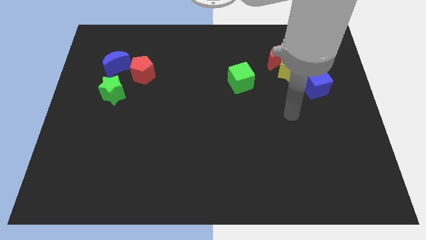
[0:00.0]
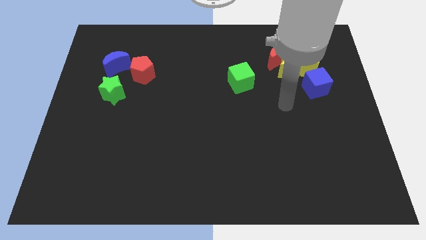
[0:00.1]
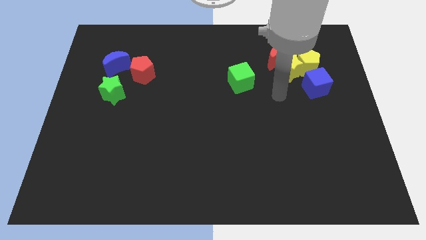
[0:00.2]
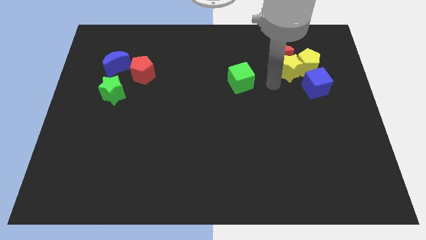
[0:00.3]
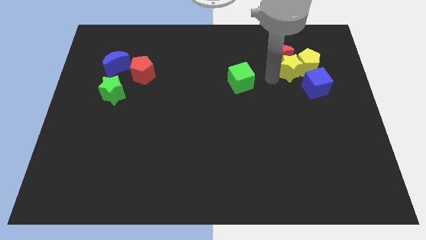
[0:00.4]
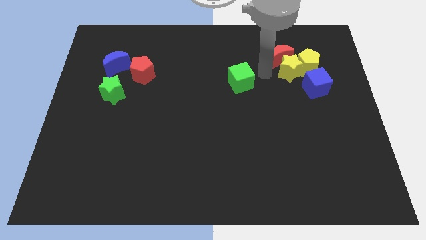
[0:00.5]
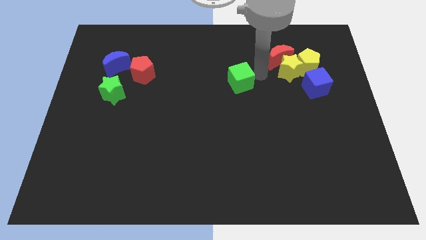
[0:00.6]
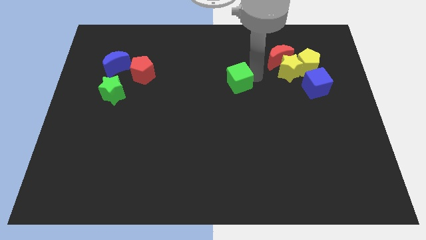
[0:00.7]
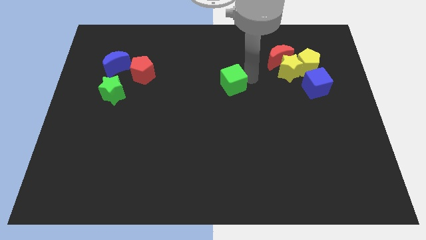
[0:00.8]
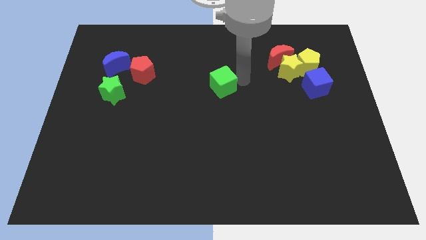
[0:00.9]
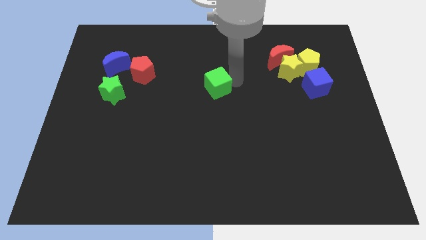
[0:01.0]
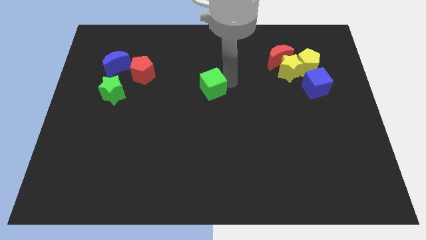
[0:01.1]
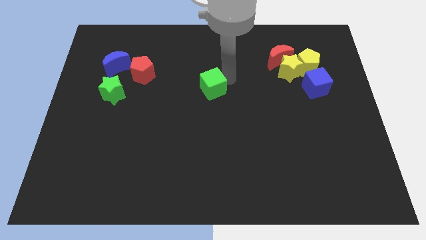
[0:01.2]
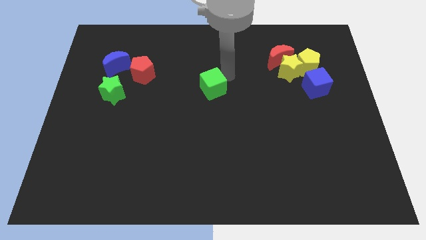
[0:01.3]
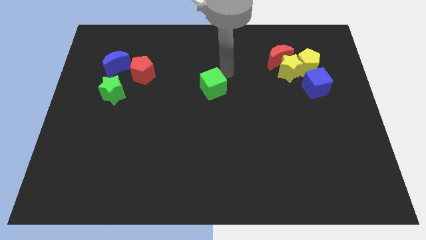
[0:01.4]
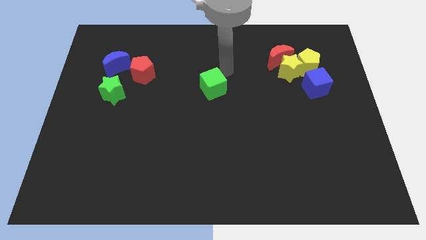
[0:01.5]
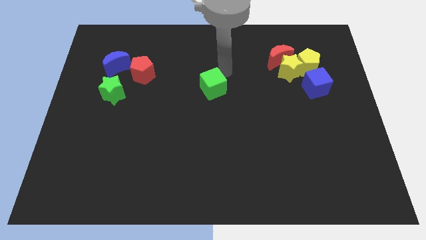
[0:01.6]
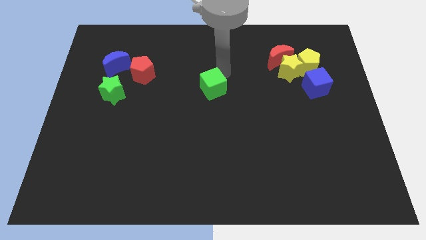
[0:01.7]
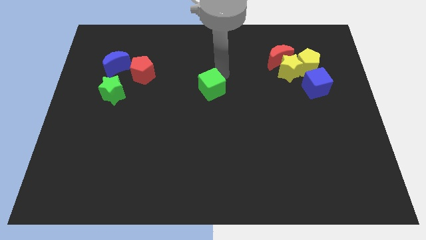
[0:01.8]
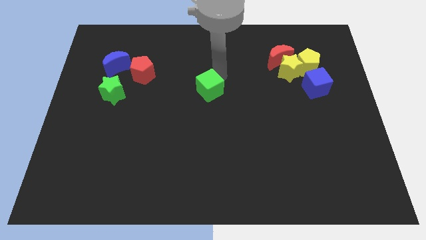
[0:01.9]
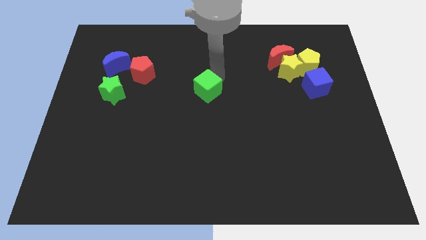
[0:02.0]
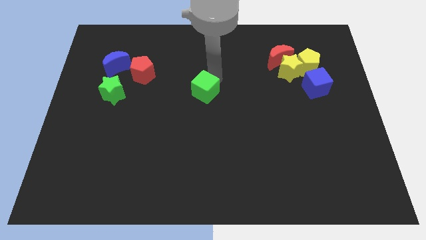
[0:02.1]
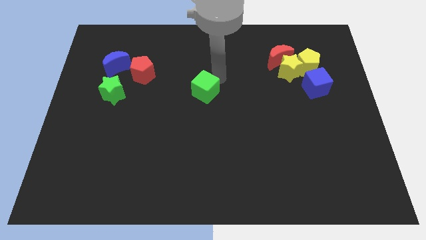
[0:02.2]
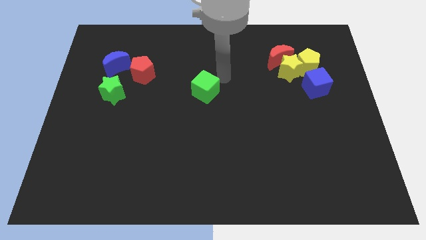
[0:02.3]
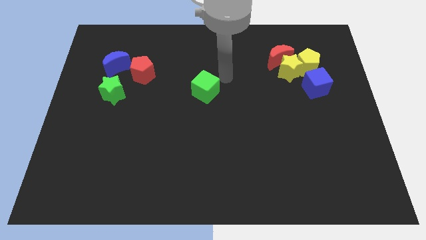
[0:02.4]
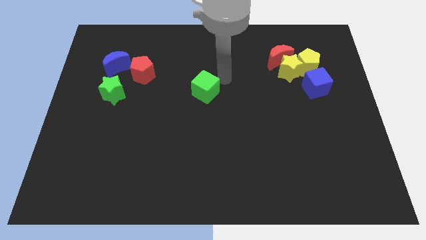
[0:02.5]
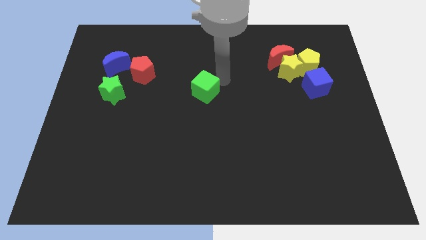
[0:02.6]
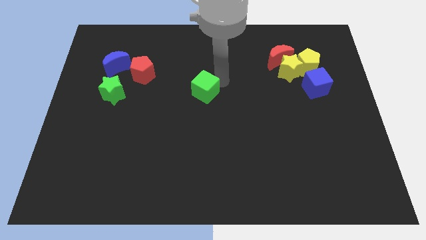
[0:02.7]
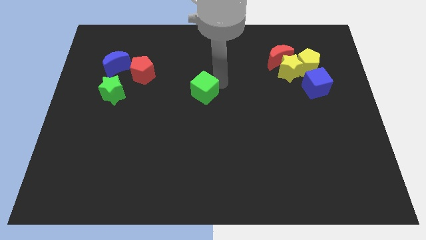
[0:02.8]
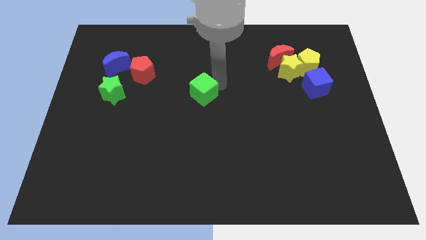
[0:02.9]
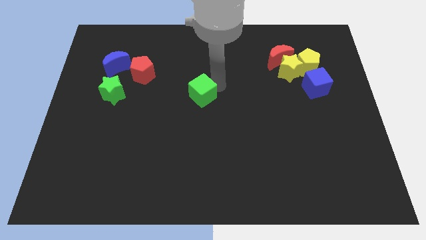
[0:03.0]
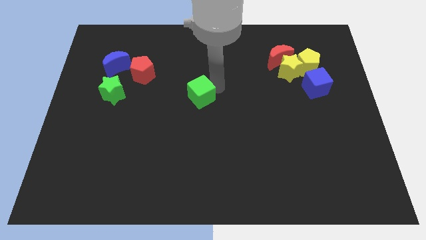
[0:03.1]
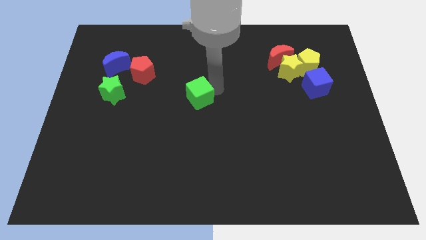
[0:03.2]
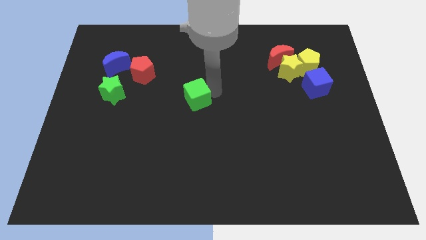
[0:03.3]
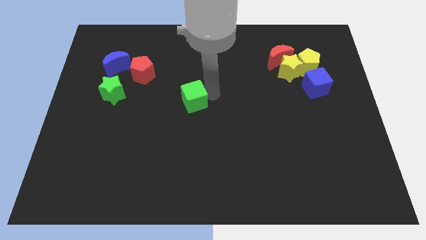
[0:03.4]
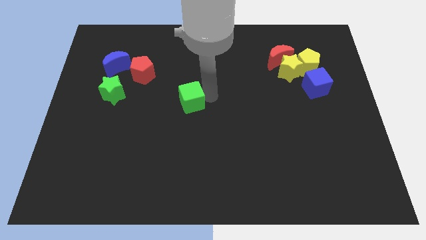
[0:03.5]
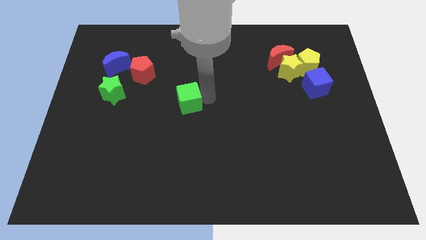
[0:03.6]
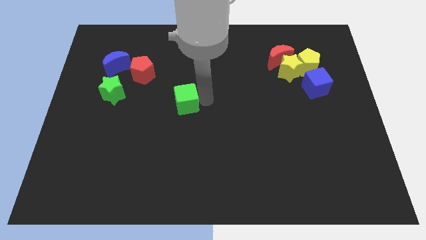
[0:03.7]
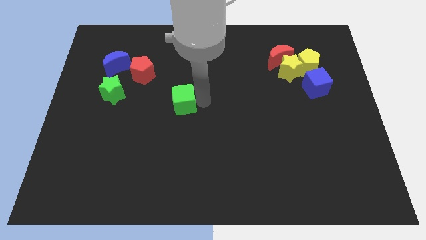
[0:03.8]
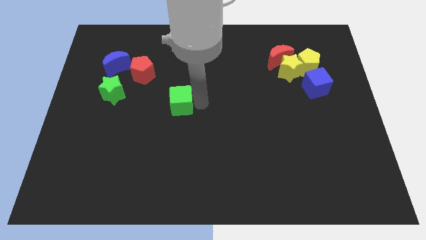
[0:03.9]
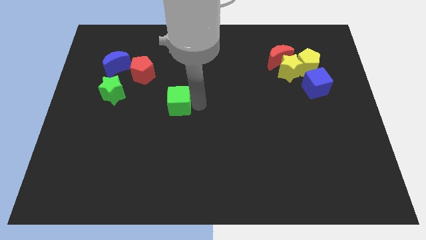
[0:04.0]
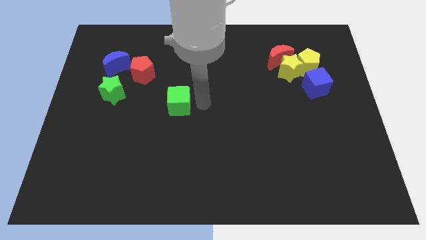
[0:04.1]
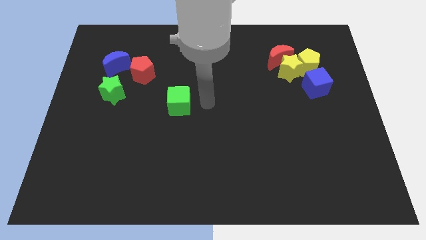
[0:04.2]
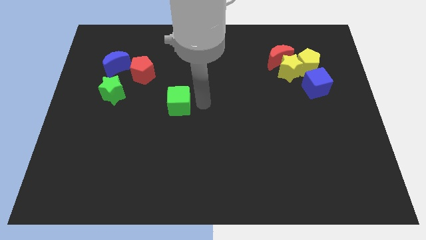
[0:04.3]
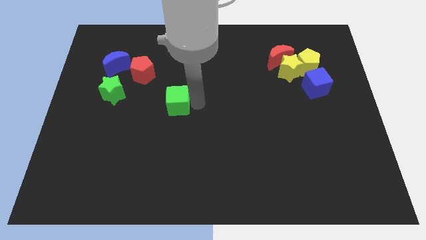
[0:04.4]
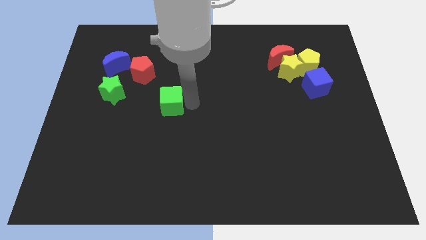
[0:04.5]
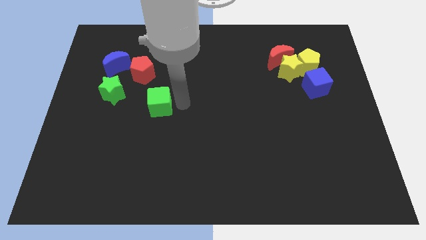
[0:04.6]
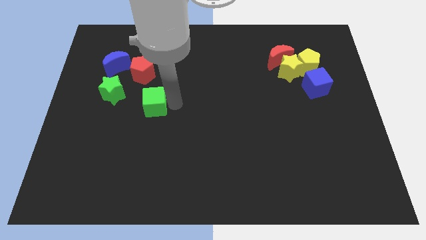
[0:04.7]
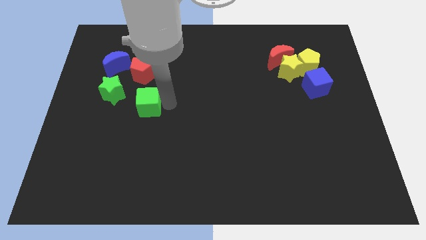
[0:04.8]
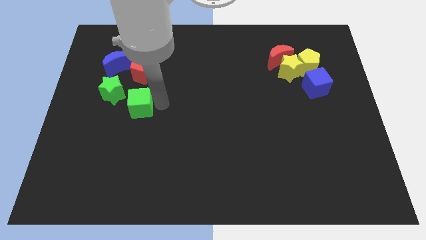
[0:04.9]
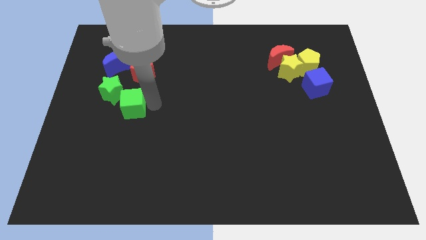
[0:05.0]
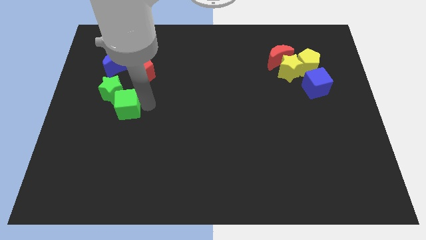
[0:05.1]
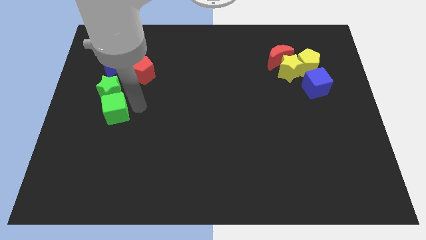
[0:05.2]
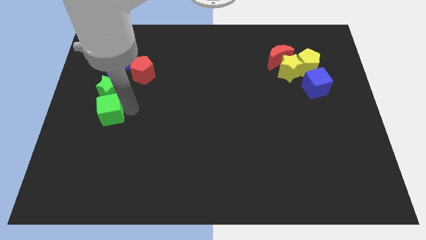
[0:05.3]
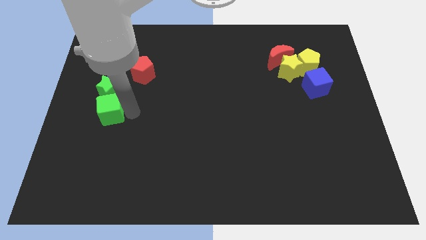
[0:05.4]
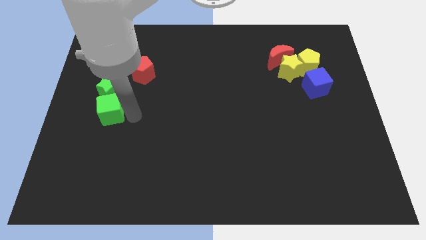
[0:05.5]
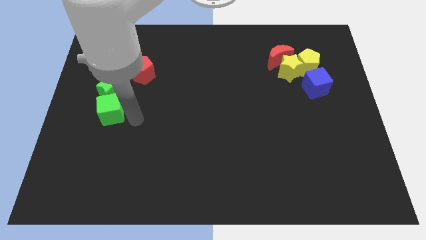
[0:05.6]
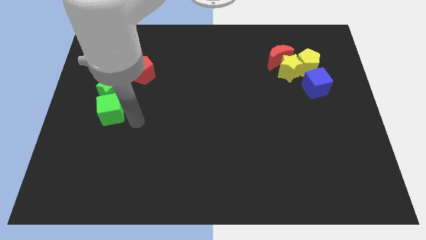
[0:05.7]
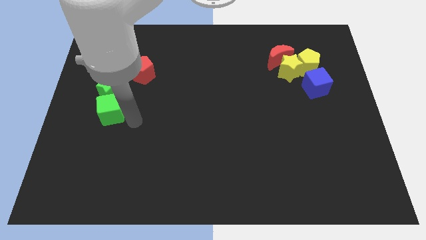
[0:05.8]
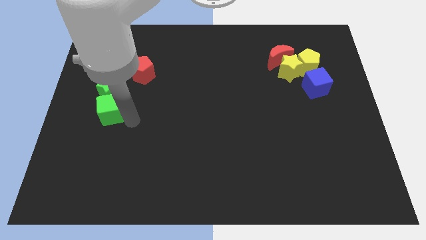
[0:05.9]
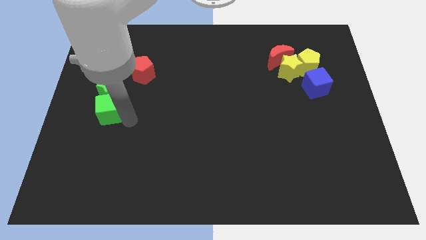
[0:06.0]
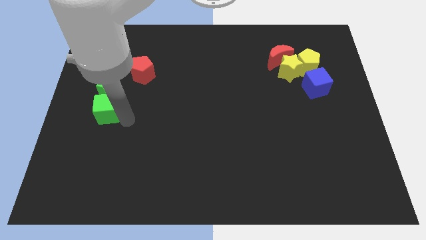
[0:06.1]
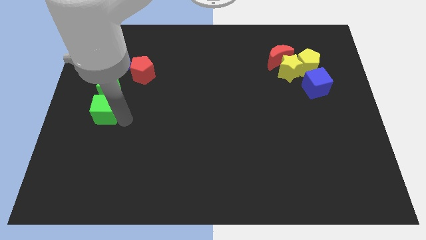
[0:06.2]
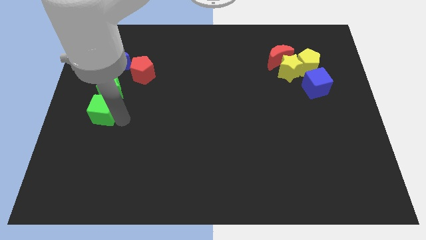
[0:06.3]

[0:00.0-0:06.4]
put the green cube to the center left

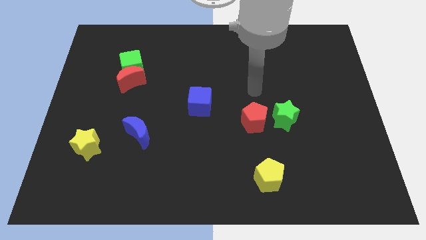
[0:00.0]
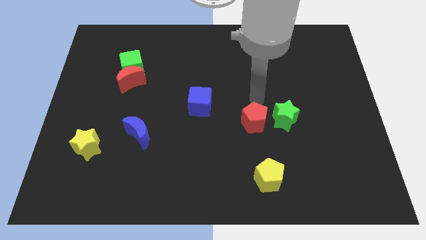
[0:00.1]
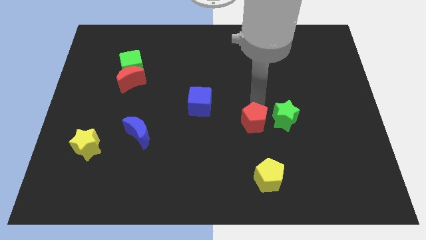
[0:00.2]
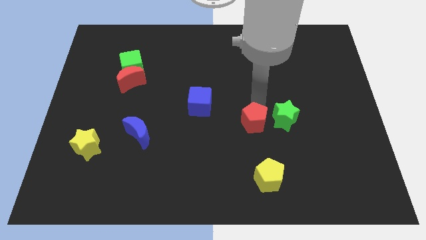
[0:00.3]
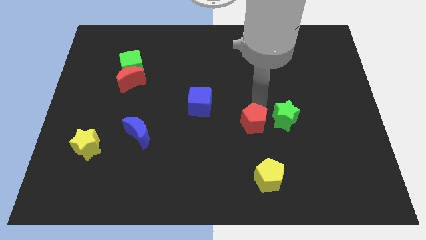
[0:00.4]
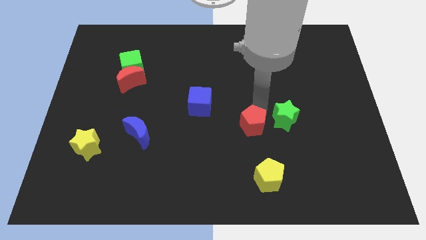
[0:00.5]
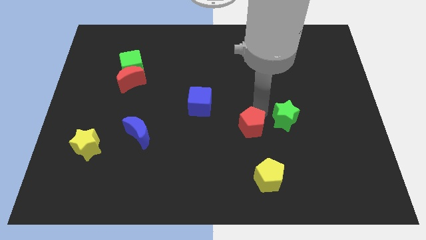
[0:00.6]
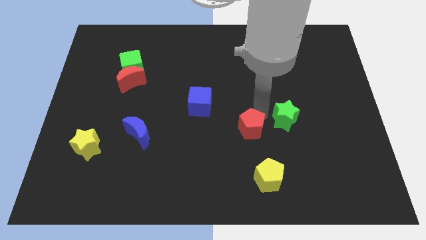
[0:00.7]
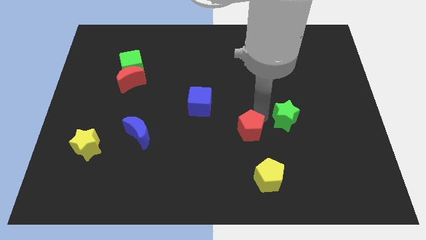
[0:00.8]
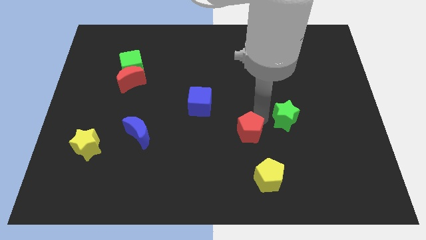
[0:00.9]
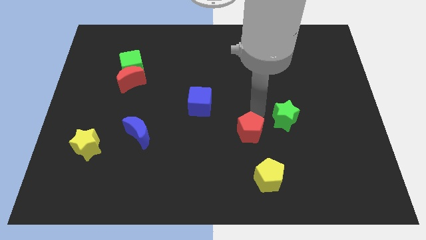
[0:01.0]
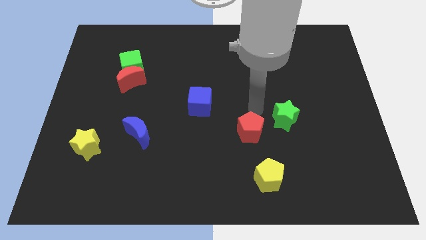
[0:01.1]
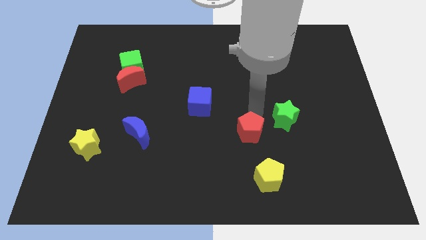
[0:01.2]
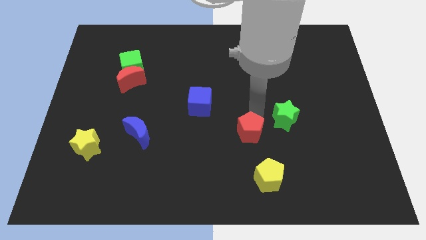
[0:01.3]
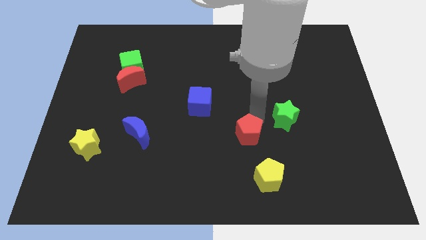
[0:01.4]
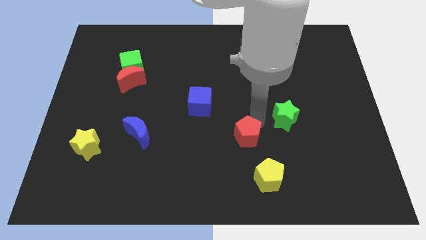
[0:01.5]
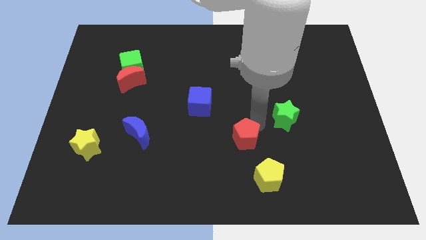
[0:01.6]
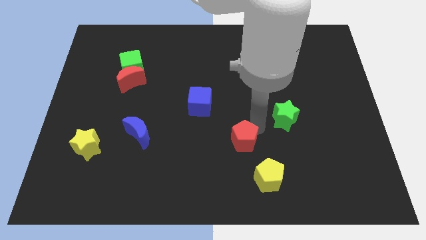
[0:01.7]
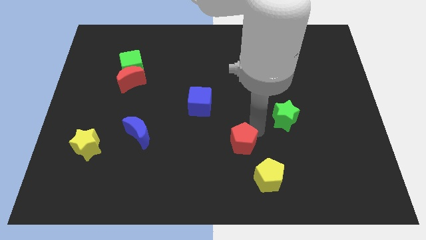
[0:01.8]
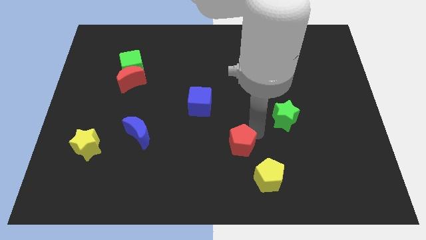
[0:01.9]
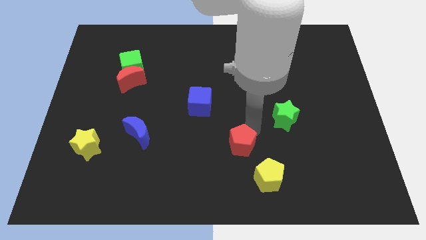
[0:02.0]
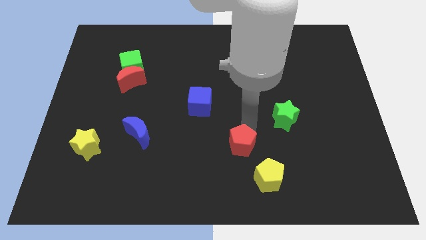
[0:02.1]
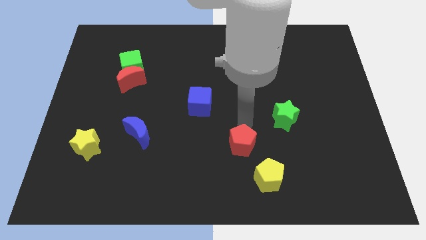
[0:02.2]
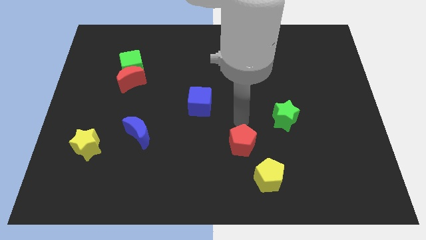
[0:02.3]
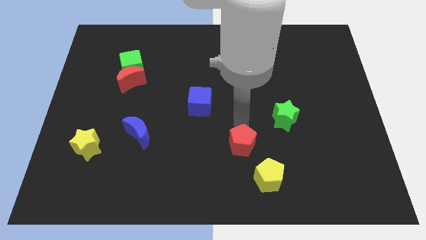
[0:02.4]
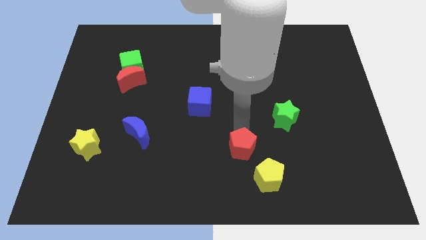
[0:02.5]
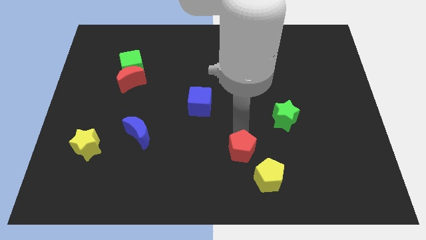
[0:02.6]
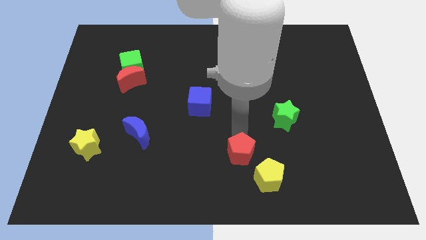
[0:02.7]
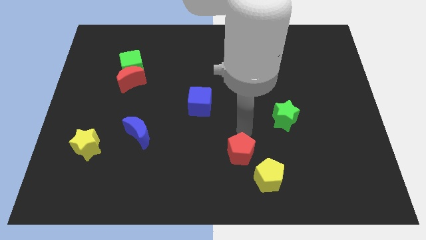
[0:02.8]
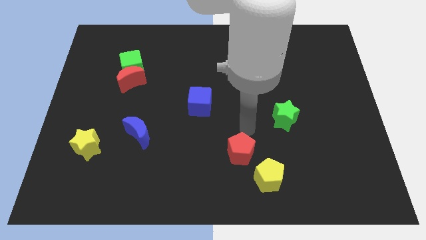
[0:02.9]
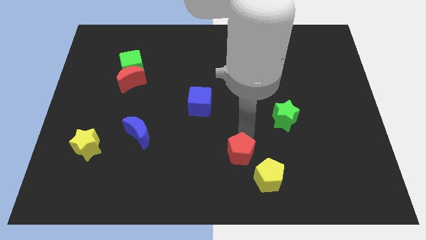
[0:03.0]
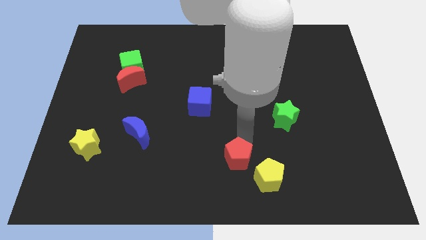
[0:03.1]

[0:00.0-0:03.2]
push the red pentagon to the bottom side
